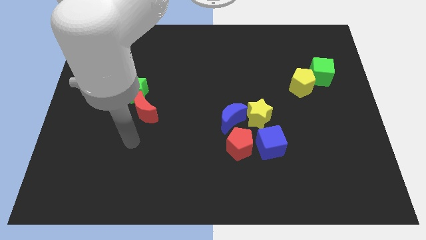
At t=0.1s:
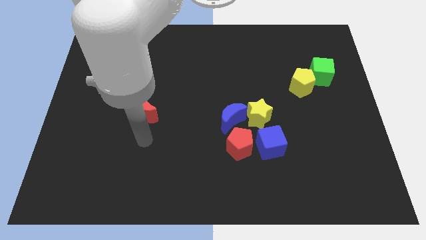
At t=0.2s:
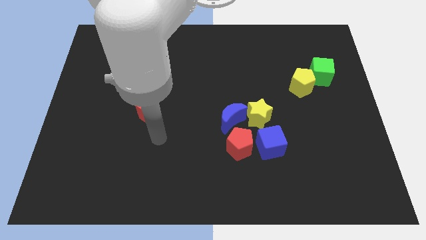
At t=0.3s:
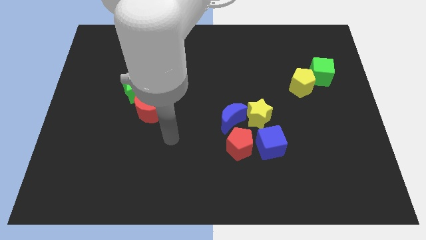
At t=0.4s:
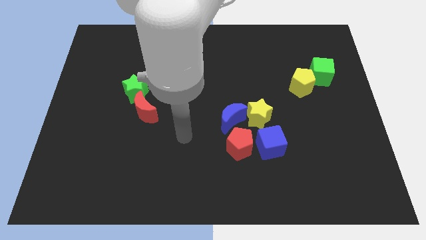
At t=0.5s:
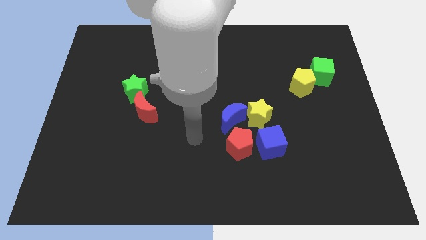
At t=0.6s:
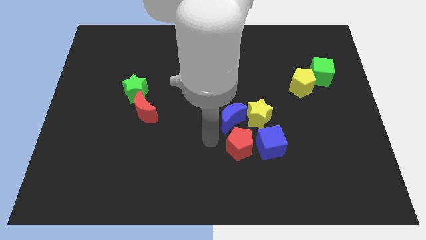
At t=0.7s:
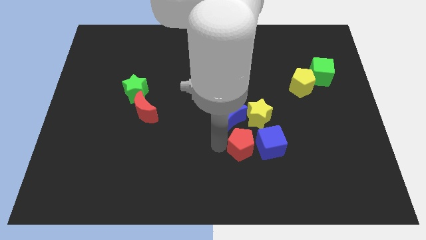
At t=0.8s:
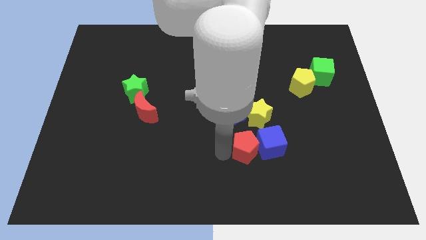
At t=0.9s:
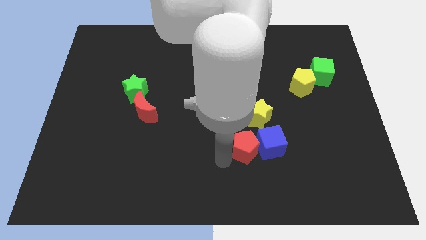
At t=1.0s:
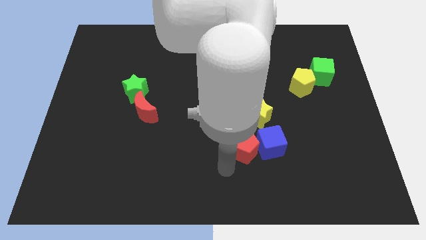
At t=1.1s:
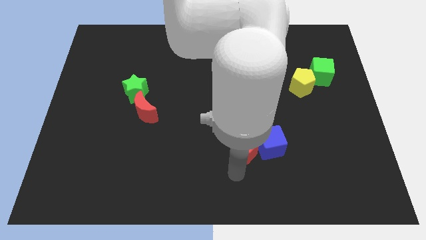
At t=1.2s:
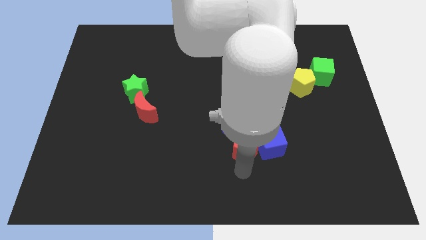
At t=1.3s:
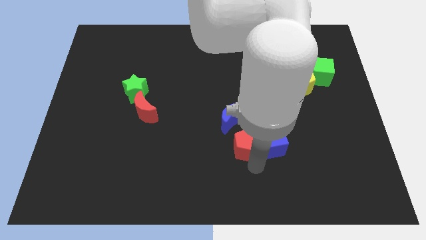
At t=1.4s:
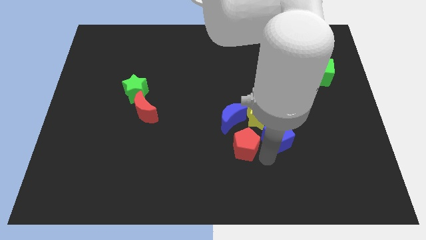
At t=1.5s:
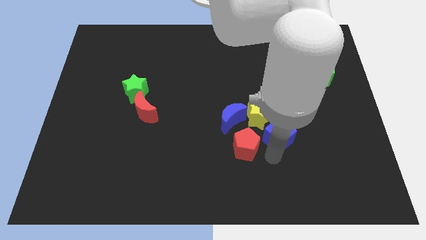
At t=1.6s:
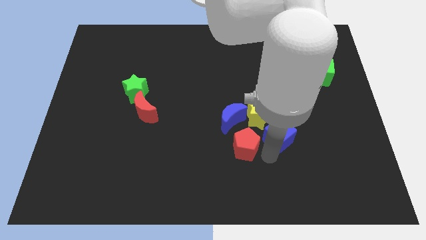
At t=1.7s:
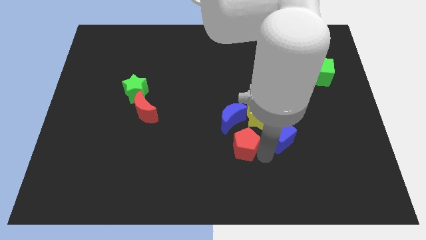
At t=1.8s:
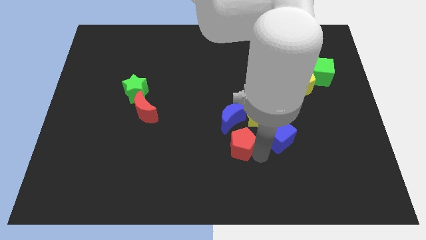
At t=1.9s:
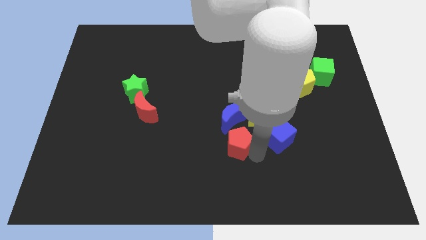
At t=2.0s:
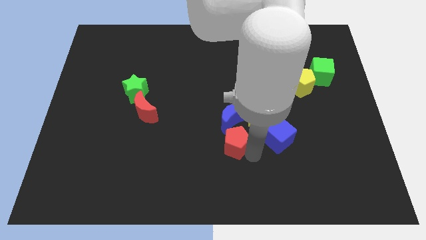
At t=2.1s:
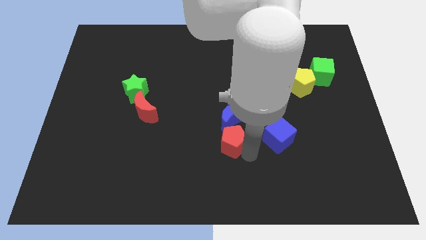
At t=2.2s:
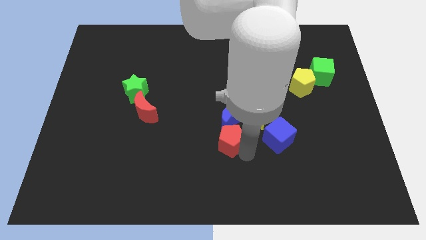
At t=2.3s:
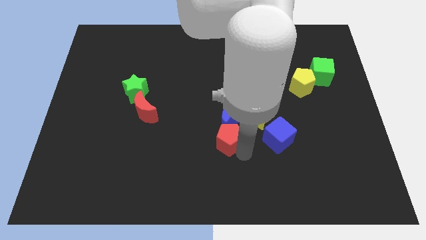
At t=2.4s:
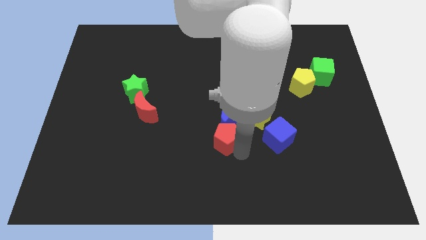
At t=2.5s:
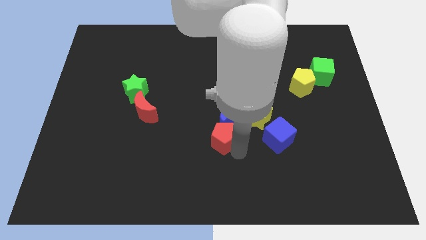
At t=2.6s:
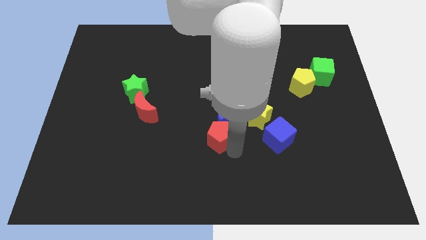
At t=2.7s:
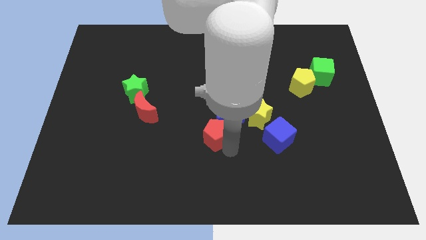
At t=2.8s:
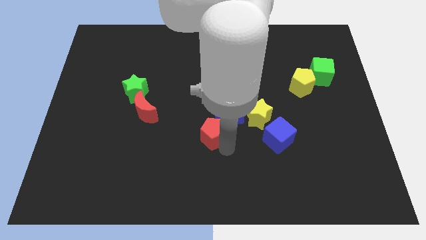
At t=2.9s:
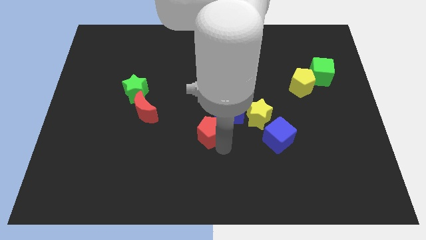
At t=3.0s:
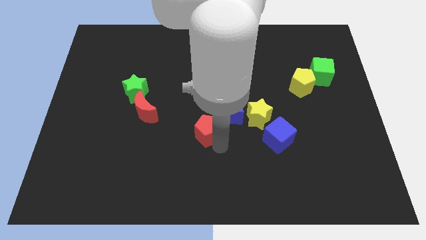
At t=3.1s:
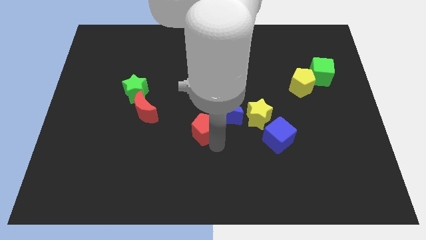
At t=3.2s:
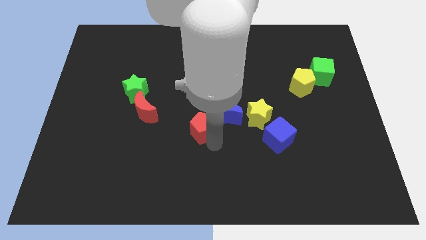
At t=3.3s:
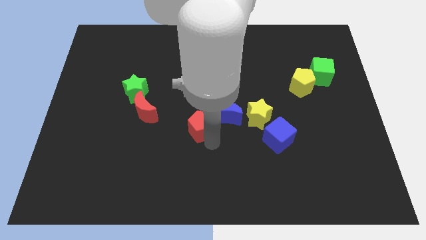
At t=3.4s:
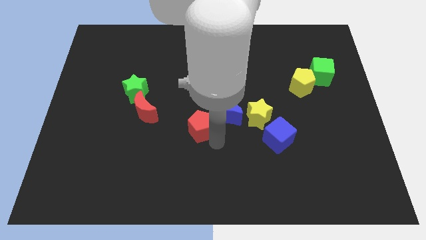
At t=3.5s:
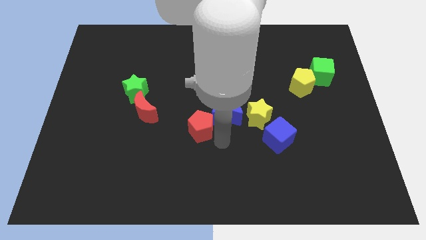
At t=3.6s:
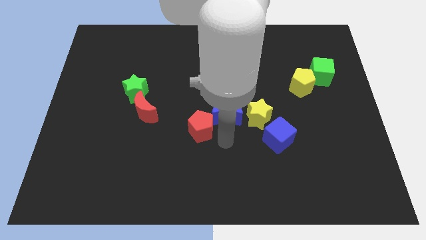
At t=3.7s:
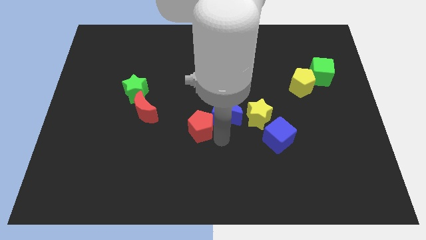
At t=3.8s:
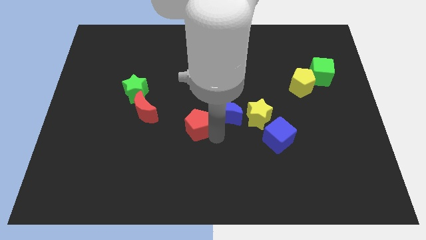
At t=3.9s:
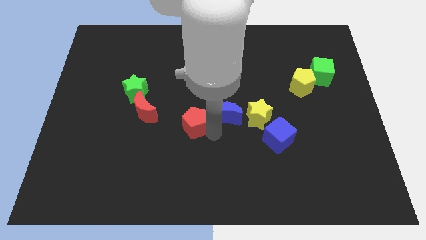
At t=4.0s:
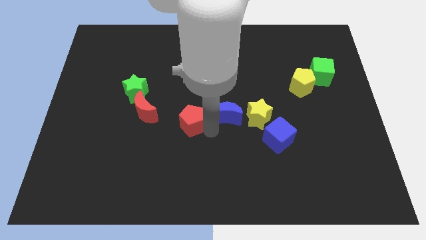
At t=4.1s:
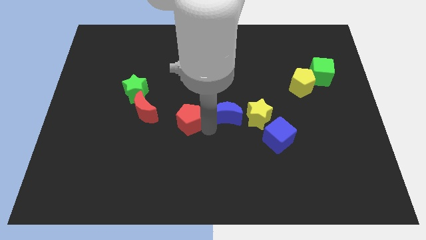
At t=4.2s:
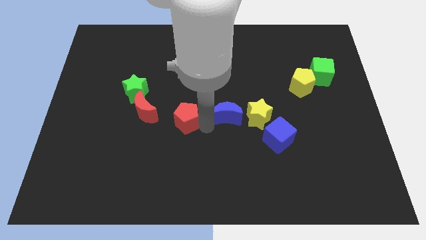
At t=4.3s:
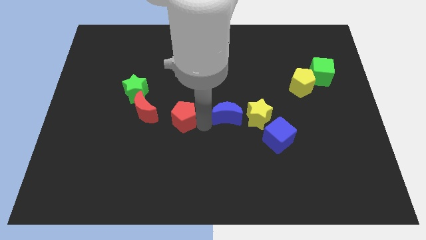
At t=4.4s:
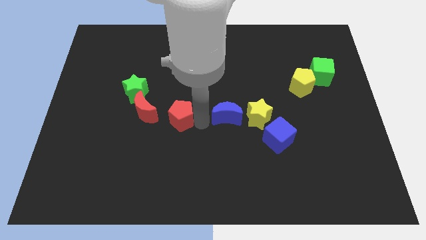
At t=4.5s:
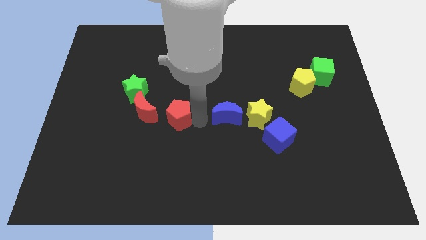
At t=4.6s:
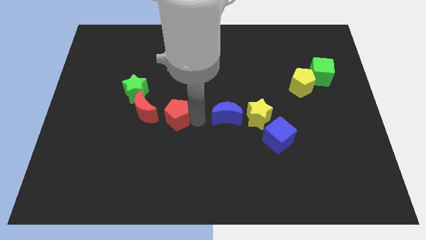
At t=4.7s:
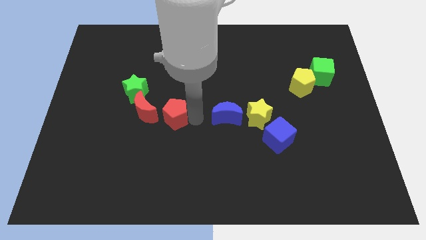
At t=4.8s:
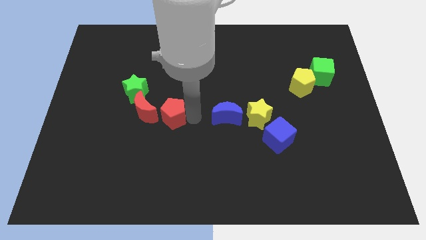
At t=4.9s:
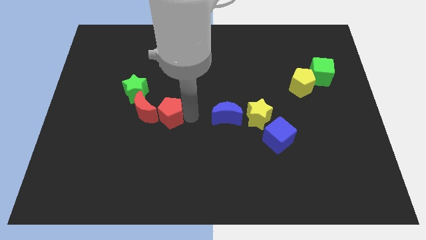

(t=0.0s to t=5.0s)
move the red pentagon next to the red moon

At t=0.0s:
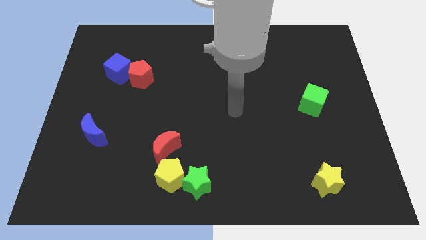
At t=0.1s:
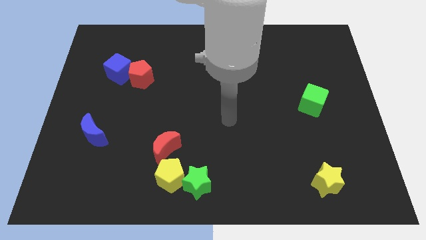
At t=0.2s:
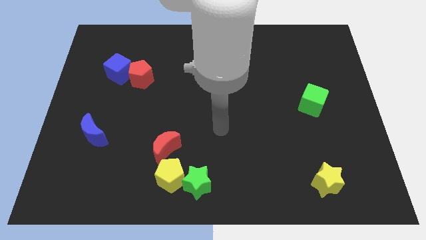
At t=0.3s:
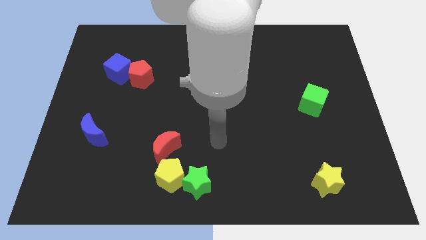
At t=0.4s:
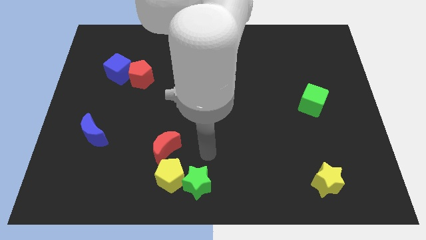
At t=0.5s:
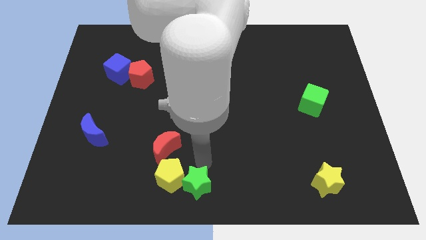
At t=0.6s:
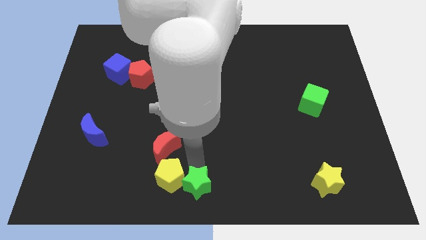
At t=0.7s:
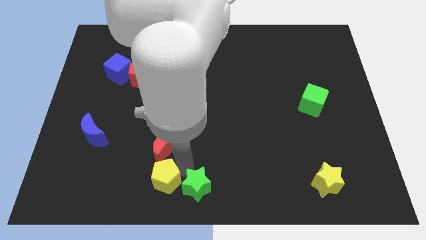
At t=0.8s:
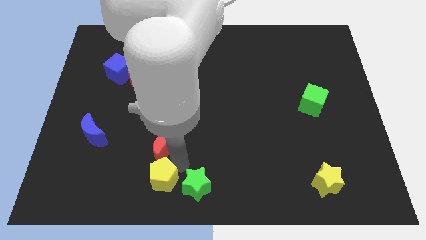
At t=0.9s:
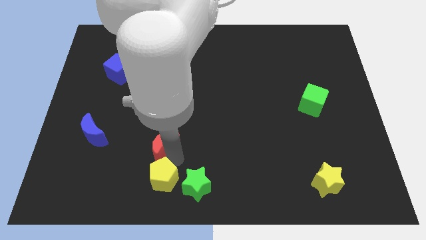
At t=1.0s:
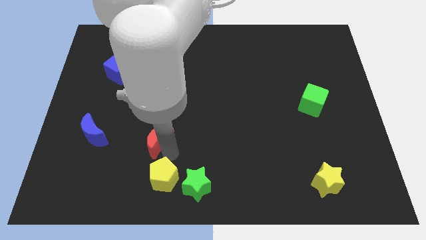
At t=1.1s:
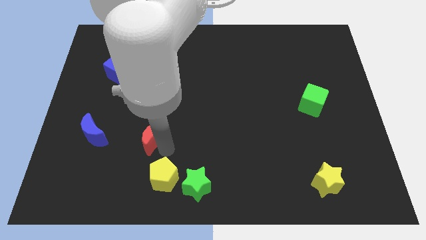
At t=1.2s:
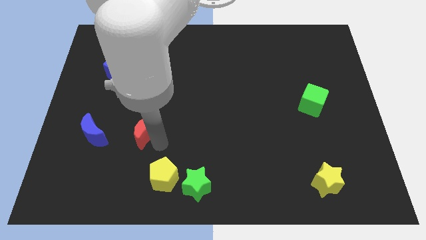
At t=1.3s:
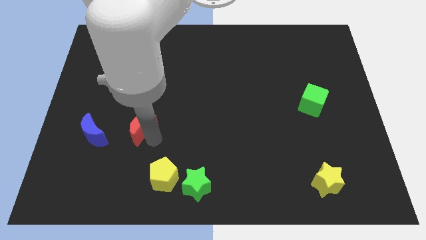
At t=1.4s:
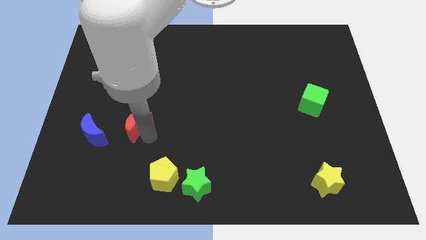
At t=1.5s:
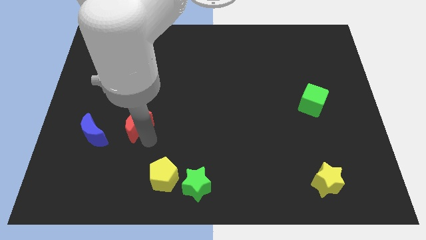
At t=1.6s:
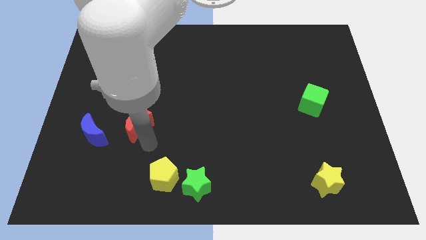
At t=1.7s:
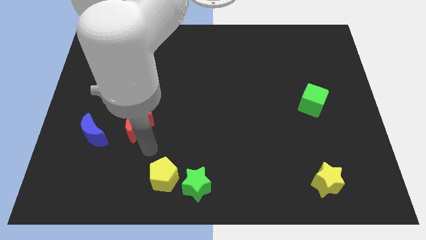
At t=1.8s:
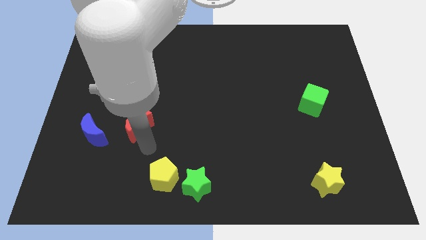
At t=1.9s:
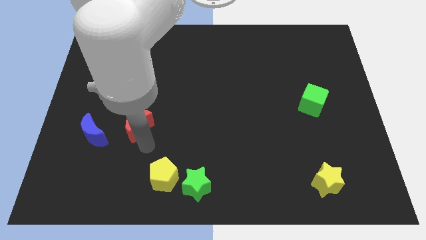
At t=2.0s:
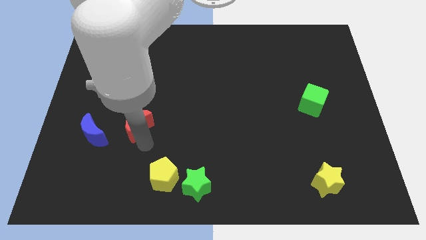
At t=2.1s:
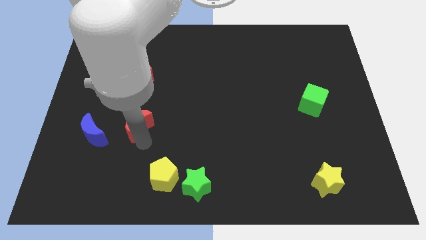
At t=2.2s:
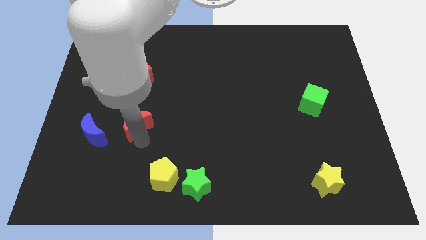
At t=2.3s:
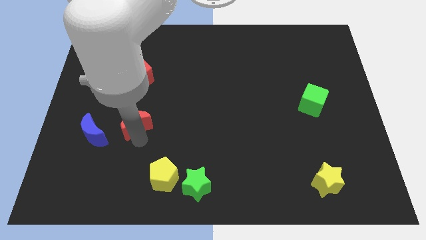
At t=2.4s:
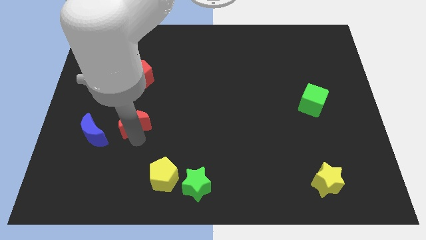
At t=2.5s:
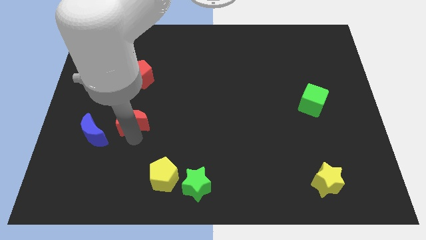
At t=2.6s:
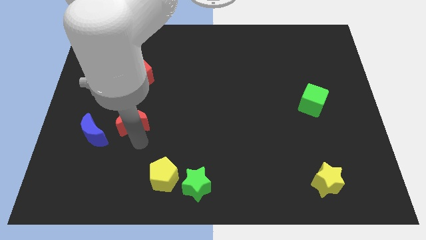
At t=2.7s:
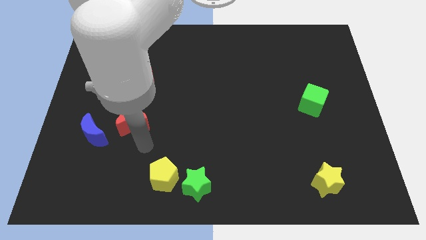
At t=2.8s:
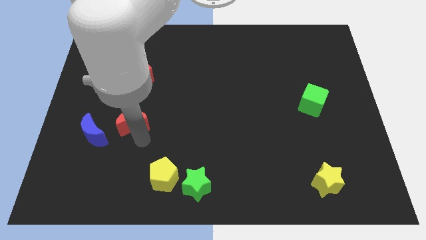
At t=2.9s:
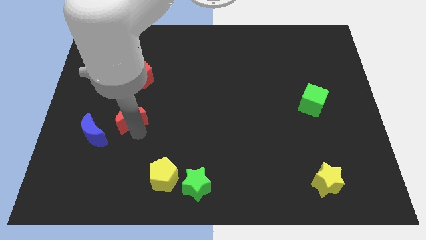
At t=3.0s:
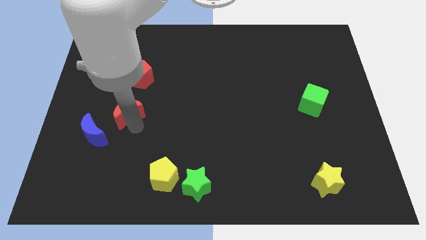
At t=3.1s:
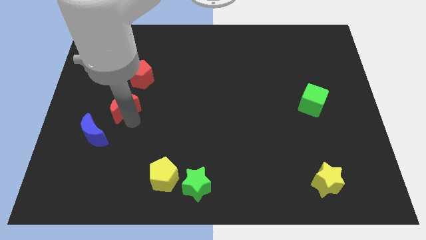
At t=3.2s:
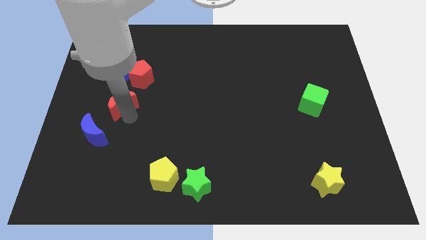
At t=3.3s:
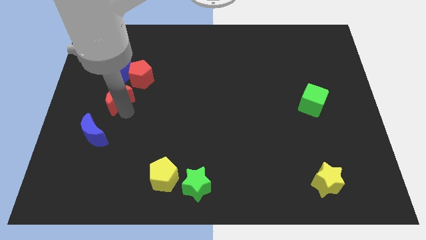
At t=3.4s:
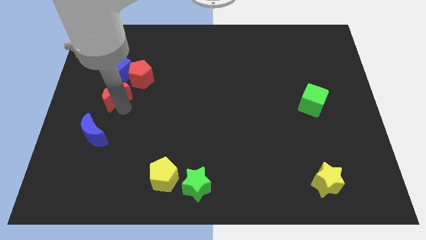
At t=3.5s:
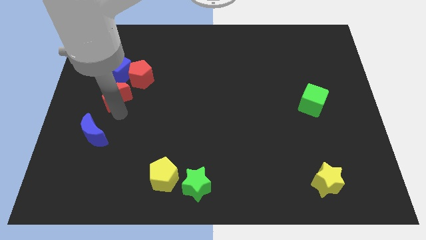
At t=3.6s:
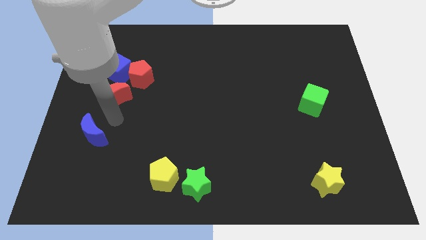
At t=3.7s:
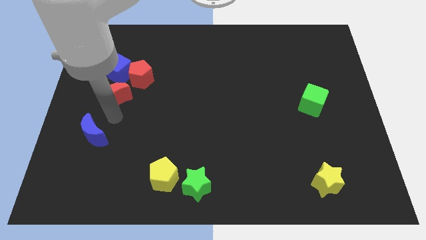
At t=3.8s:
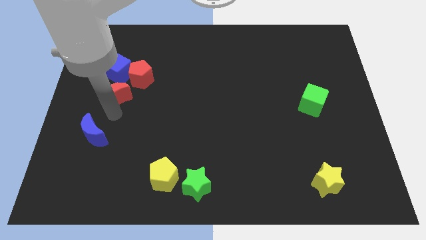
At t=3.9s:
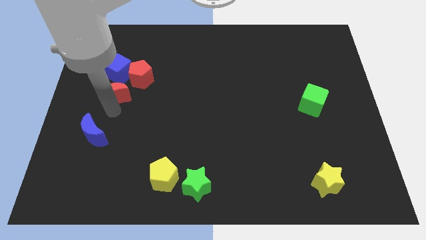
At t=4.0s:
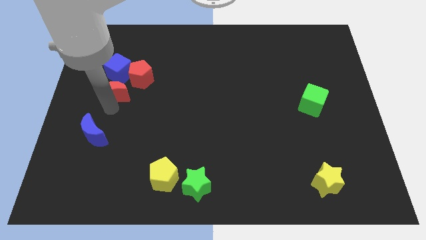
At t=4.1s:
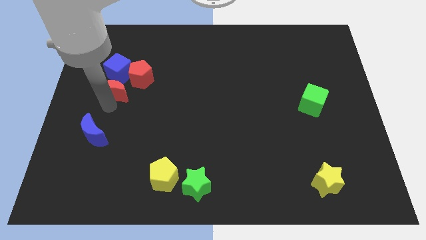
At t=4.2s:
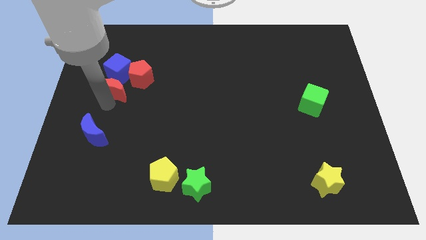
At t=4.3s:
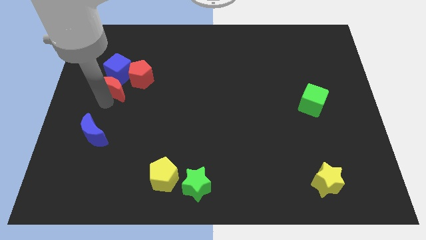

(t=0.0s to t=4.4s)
slide the red moon next to the blue cube
